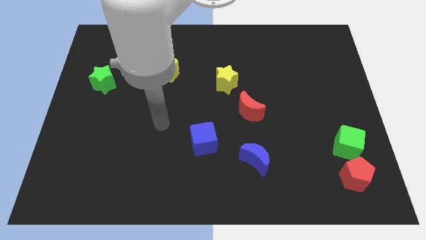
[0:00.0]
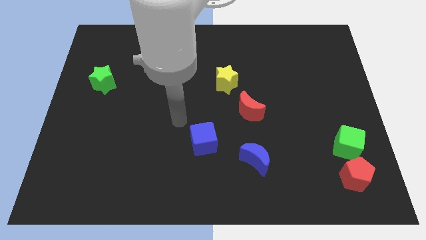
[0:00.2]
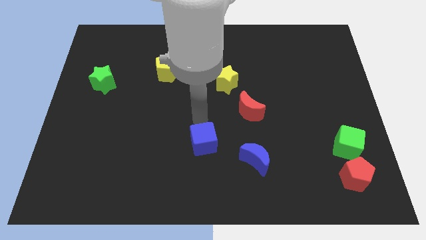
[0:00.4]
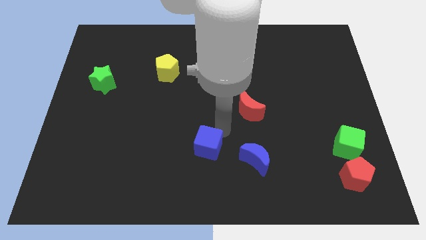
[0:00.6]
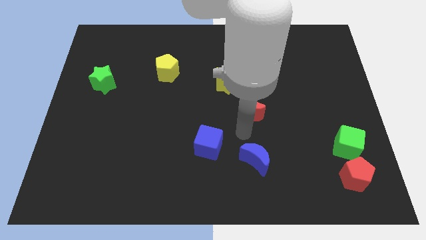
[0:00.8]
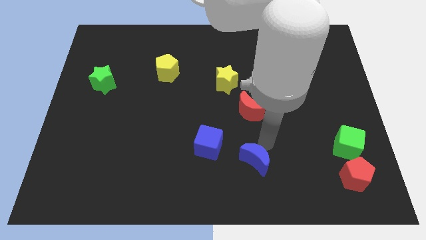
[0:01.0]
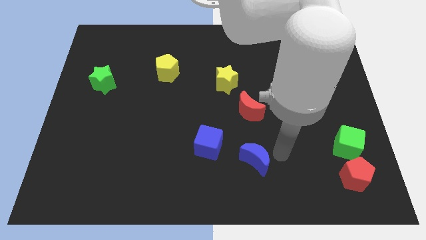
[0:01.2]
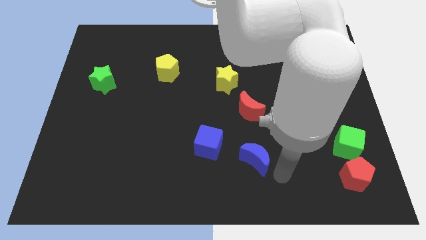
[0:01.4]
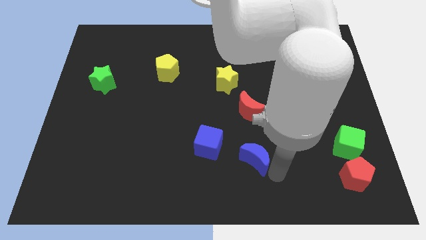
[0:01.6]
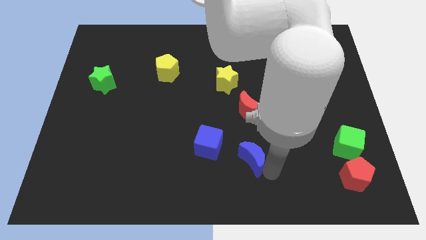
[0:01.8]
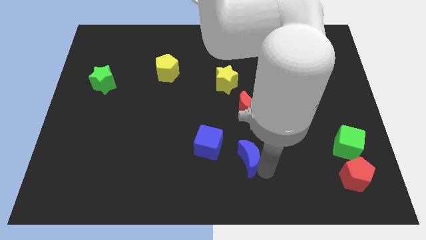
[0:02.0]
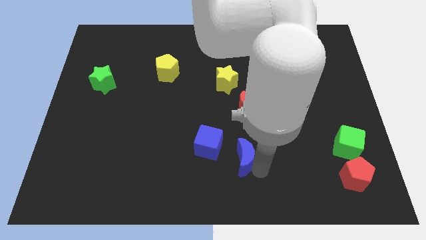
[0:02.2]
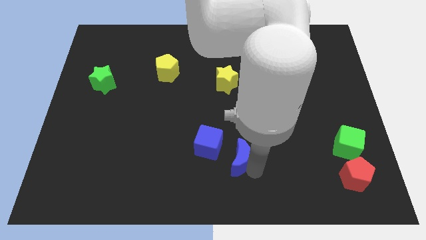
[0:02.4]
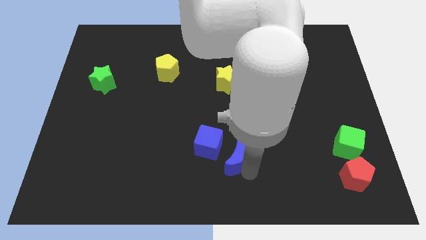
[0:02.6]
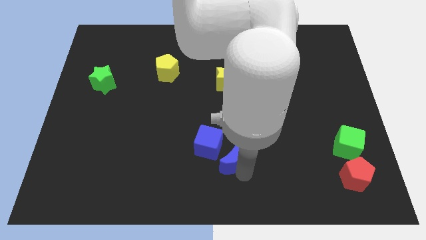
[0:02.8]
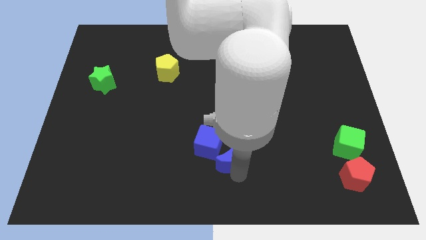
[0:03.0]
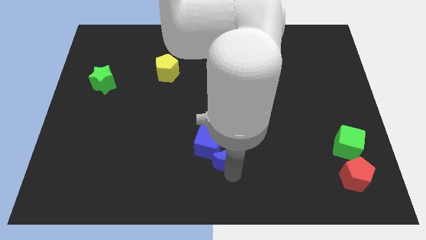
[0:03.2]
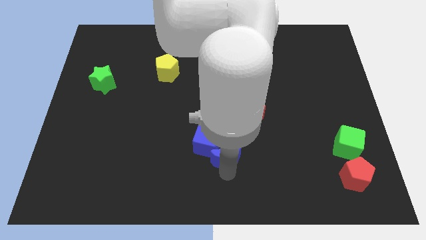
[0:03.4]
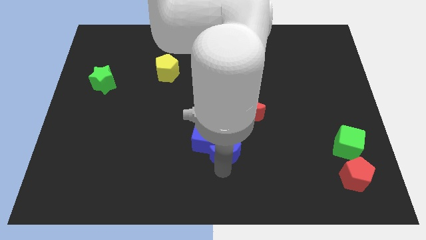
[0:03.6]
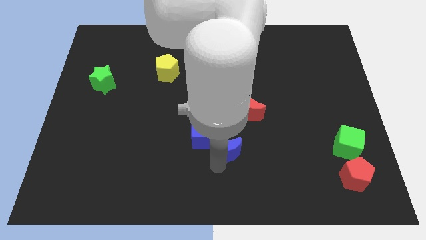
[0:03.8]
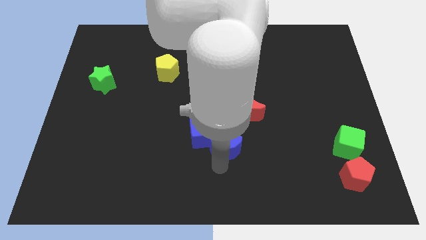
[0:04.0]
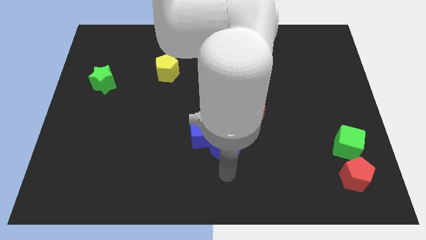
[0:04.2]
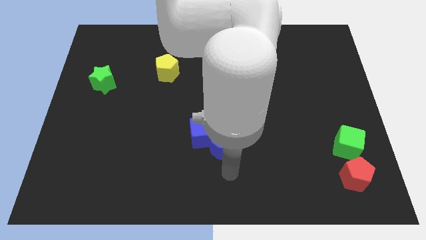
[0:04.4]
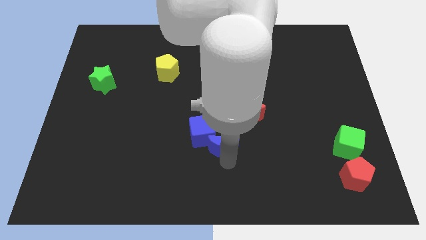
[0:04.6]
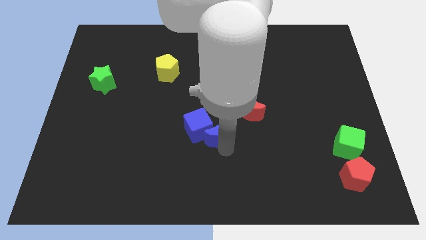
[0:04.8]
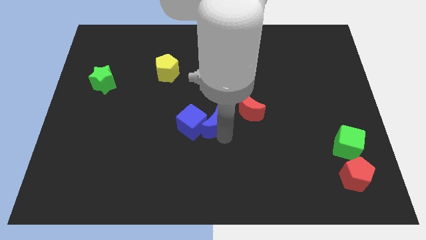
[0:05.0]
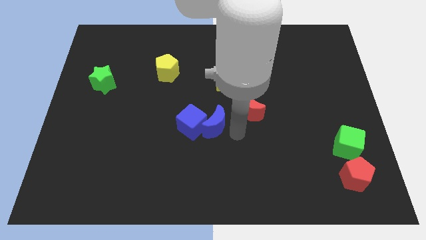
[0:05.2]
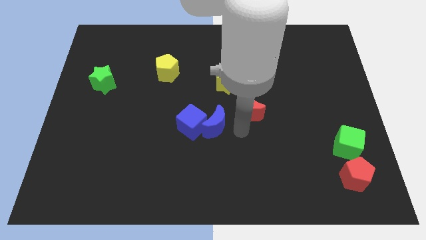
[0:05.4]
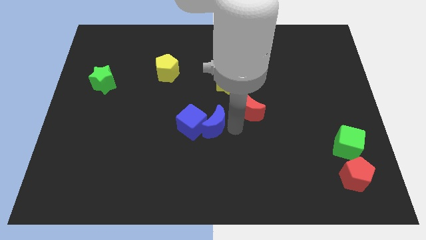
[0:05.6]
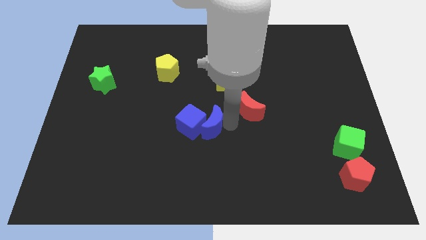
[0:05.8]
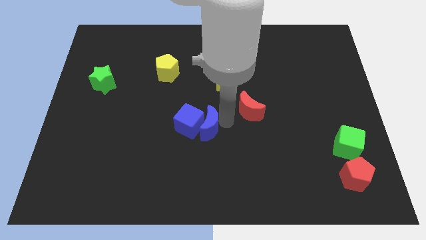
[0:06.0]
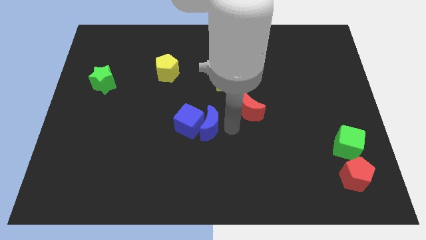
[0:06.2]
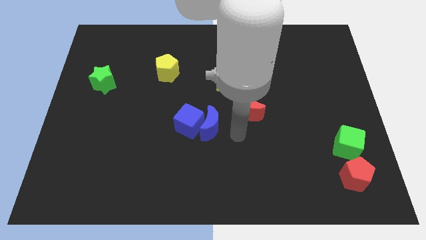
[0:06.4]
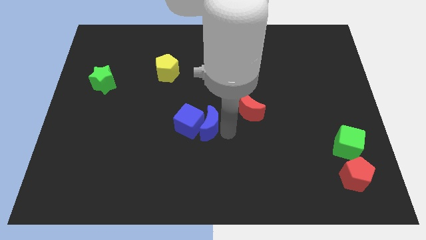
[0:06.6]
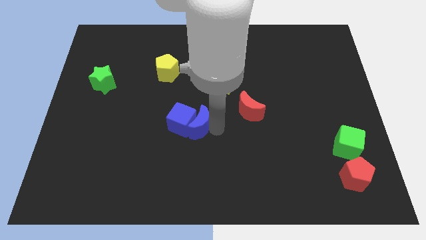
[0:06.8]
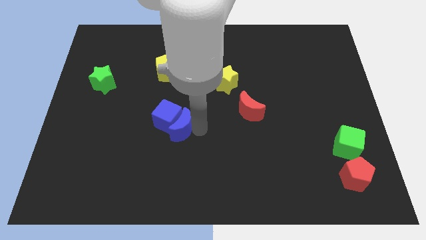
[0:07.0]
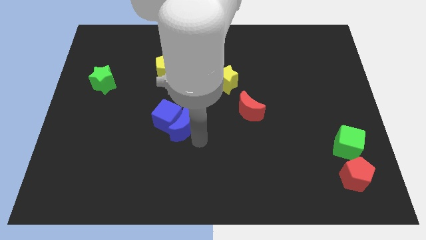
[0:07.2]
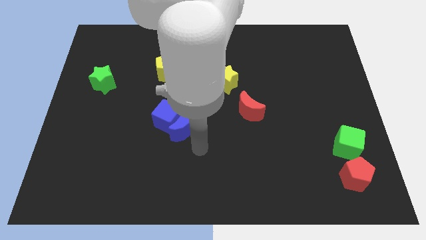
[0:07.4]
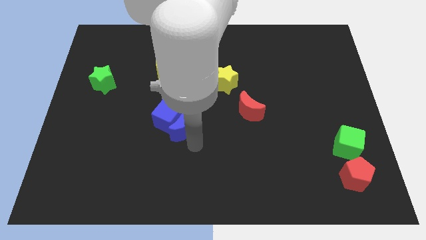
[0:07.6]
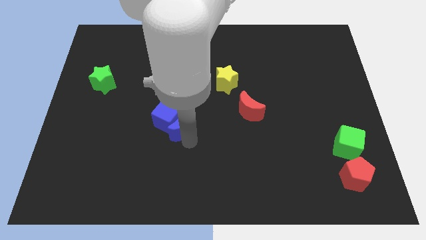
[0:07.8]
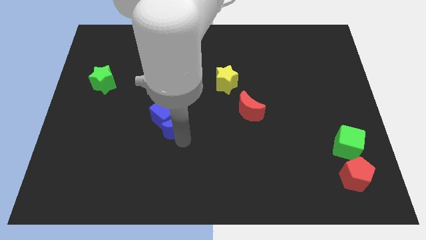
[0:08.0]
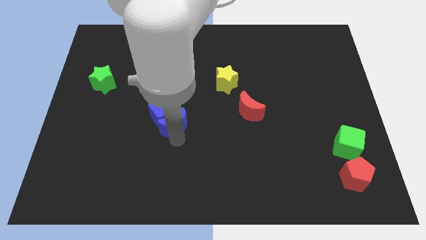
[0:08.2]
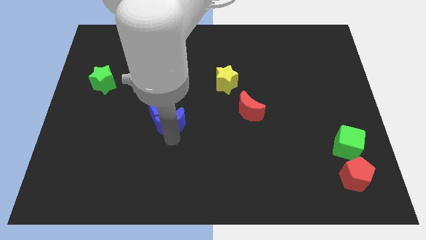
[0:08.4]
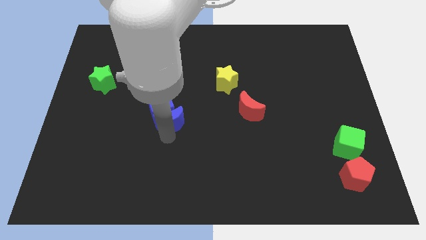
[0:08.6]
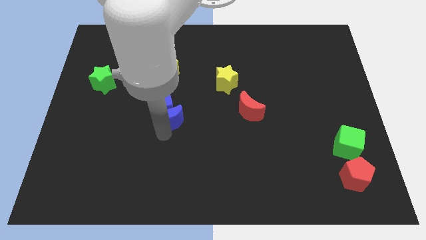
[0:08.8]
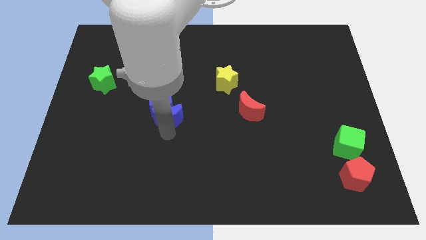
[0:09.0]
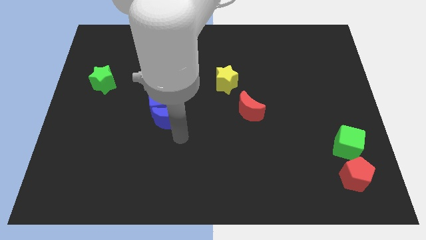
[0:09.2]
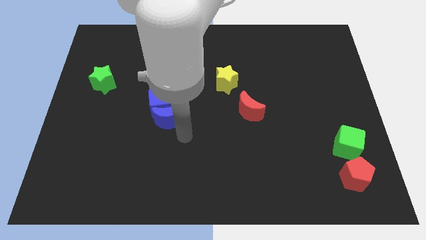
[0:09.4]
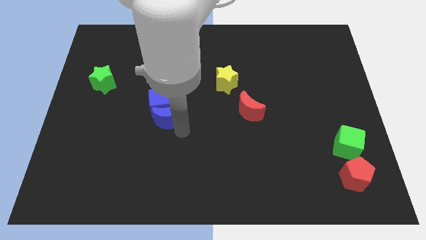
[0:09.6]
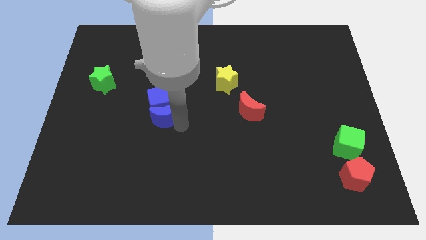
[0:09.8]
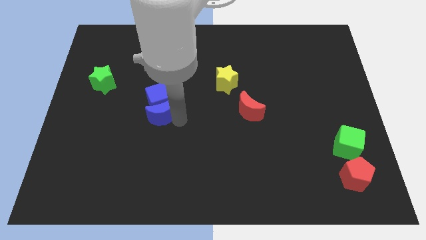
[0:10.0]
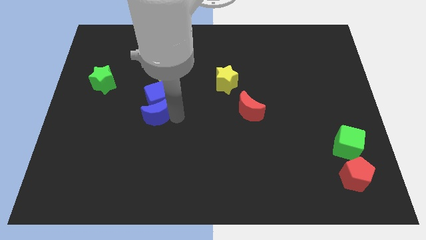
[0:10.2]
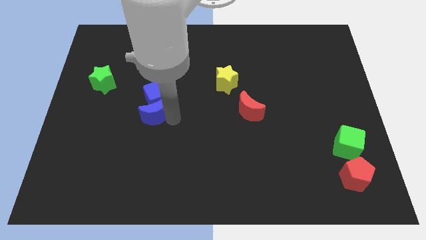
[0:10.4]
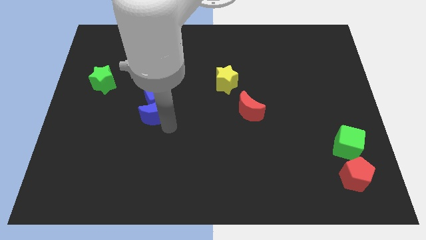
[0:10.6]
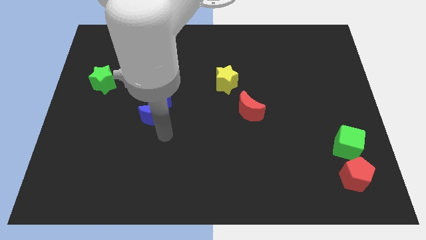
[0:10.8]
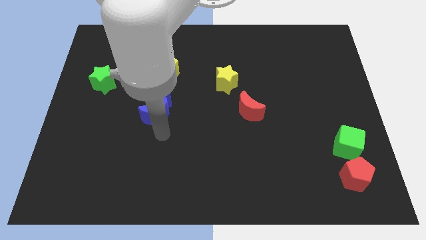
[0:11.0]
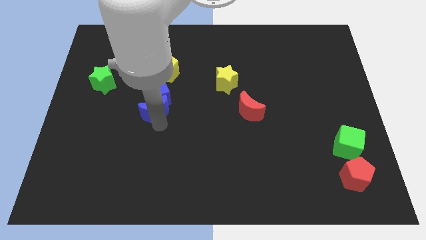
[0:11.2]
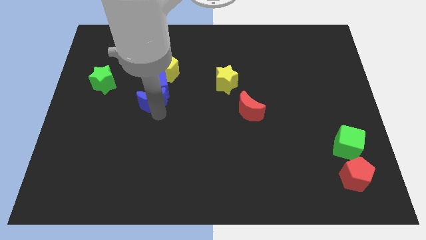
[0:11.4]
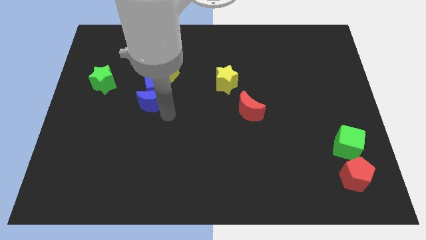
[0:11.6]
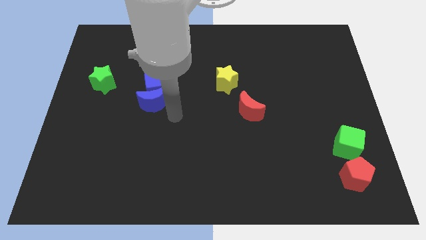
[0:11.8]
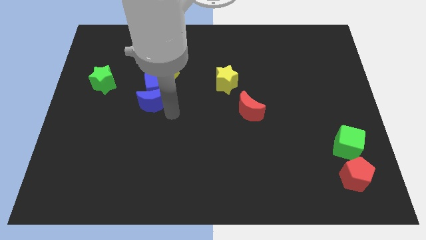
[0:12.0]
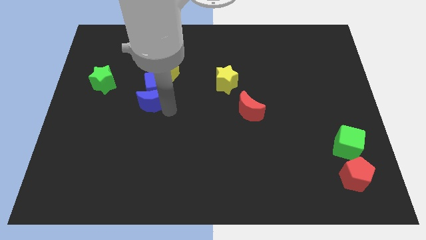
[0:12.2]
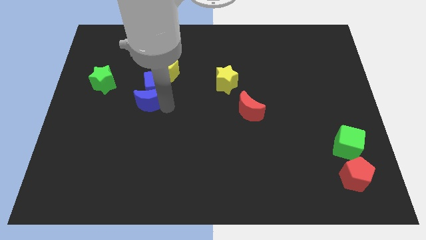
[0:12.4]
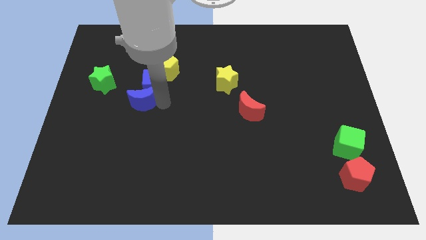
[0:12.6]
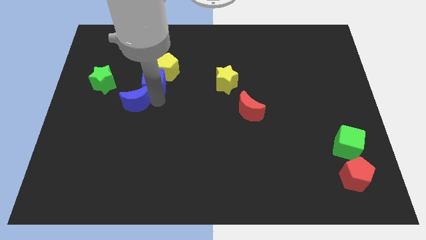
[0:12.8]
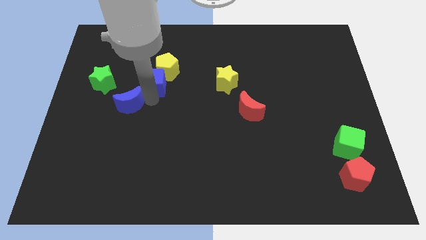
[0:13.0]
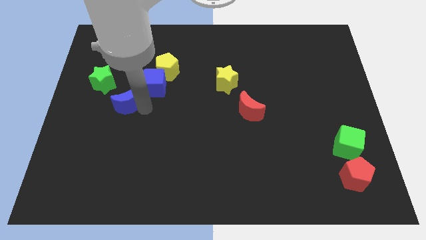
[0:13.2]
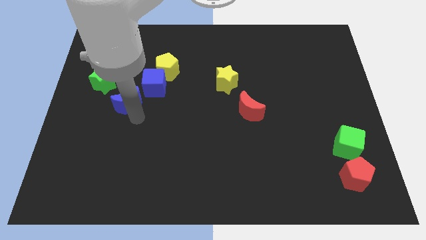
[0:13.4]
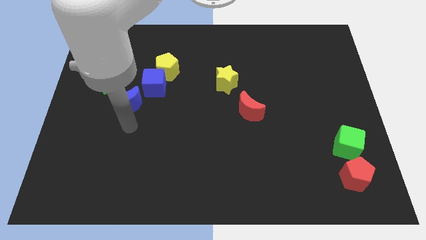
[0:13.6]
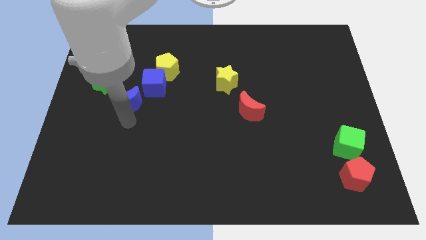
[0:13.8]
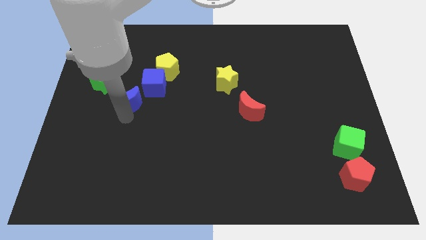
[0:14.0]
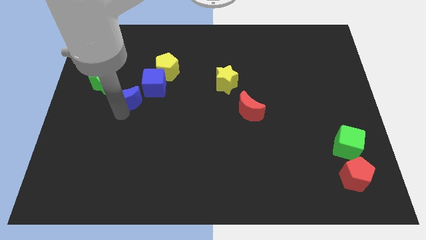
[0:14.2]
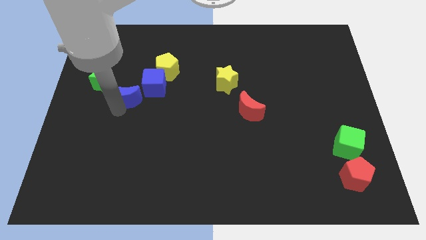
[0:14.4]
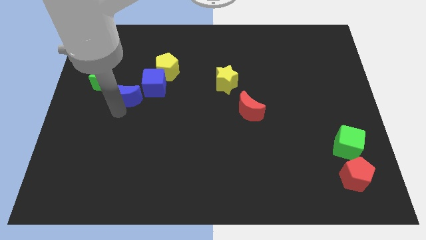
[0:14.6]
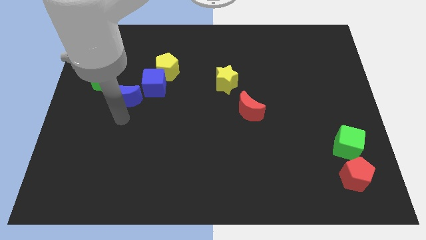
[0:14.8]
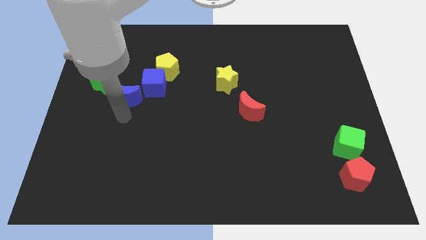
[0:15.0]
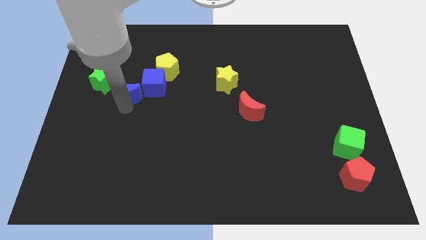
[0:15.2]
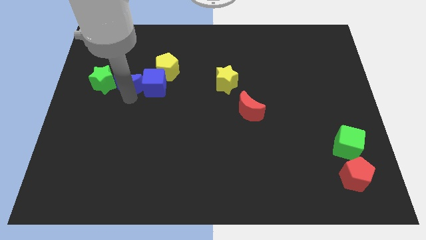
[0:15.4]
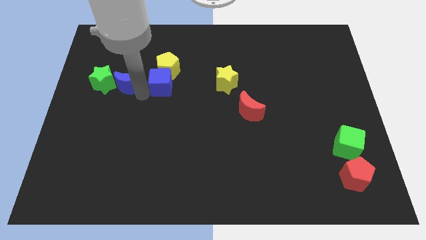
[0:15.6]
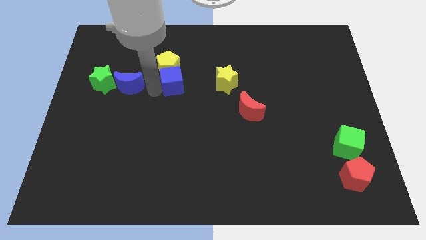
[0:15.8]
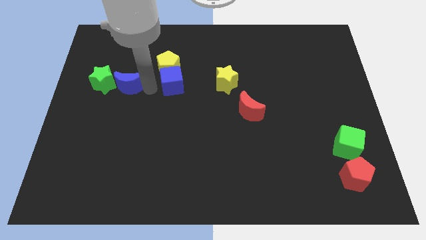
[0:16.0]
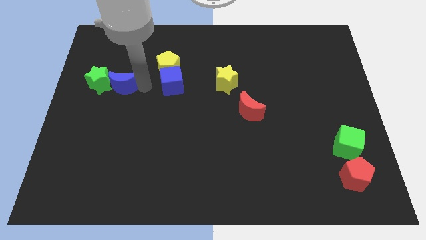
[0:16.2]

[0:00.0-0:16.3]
slide the blue moon towards the green star
